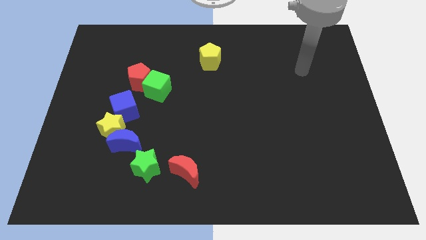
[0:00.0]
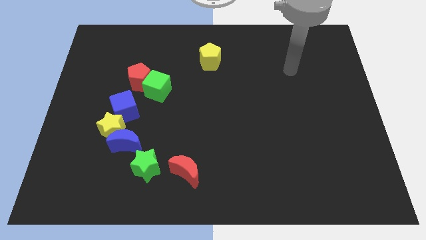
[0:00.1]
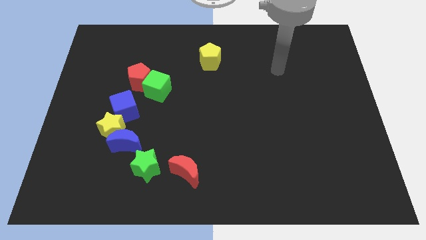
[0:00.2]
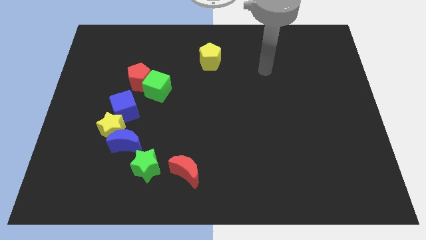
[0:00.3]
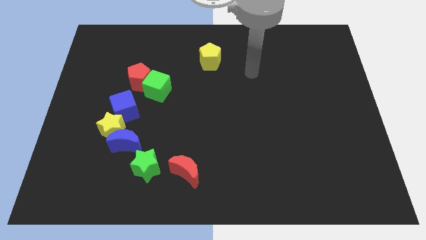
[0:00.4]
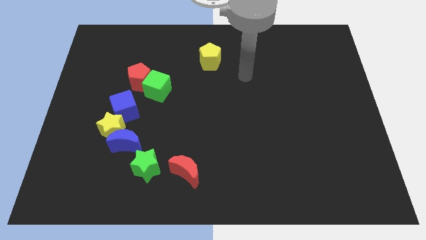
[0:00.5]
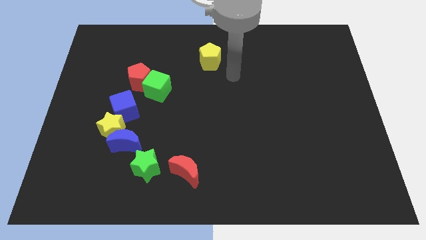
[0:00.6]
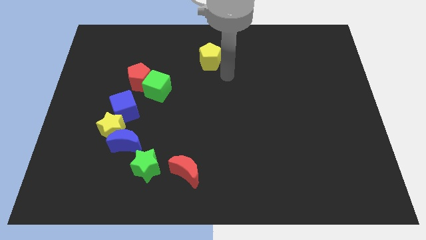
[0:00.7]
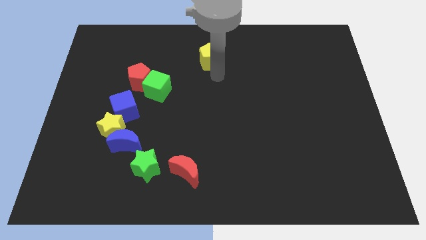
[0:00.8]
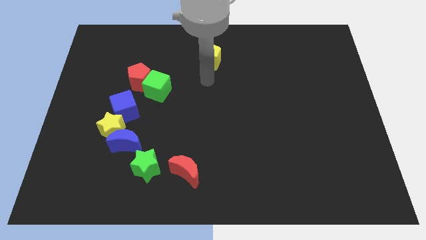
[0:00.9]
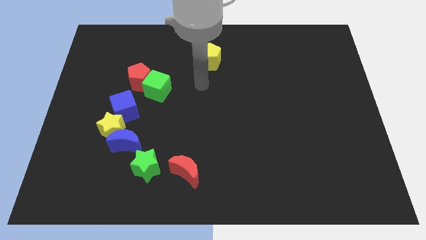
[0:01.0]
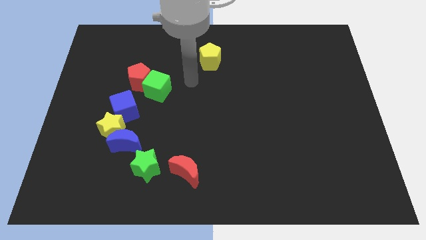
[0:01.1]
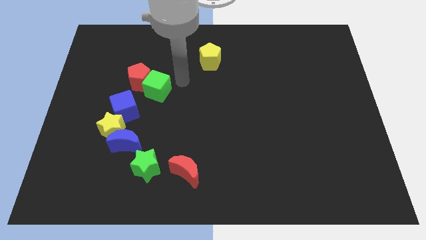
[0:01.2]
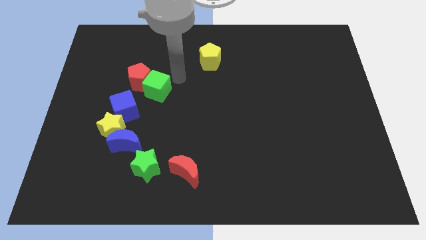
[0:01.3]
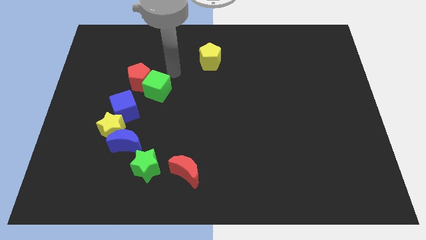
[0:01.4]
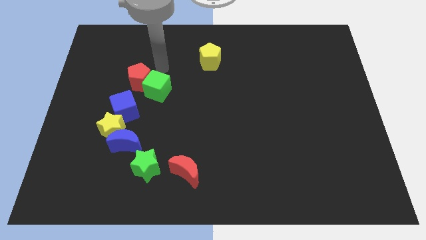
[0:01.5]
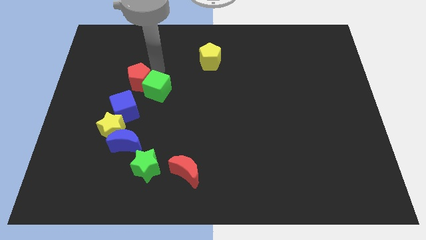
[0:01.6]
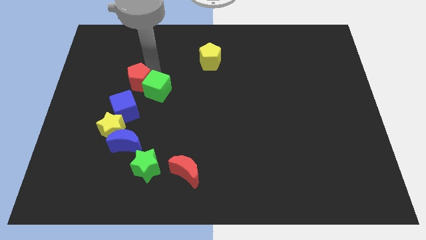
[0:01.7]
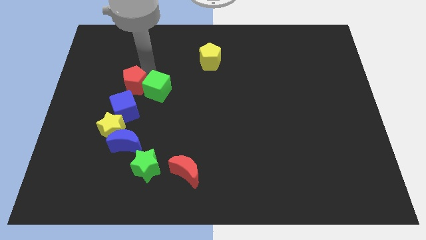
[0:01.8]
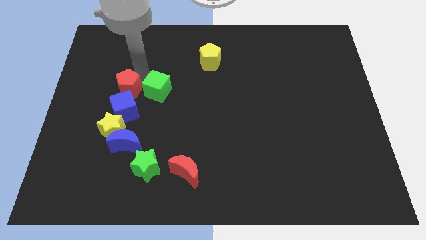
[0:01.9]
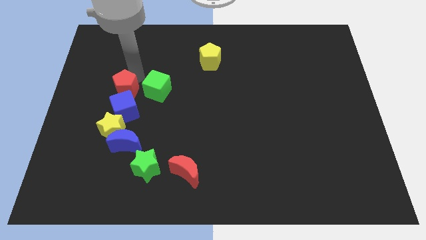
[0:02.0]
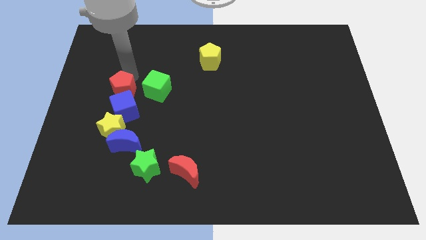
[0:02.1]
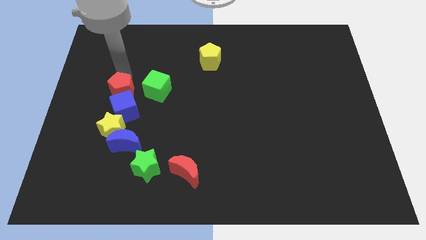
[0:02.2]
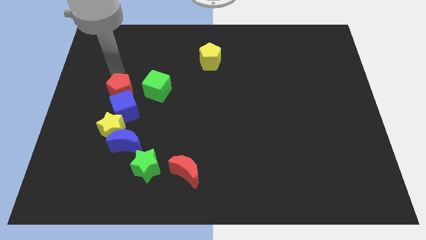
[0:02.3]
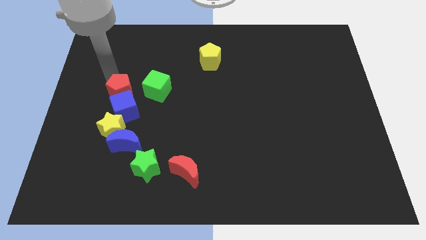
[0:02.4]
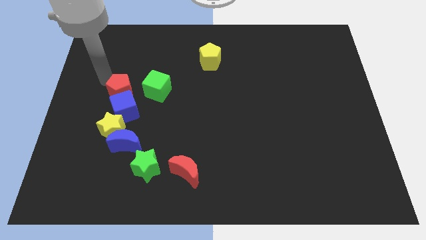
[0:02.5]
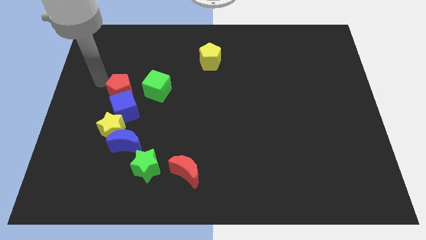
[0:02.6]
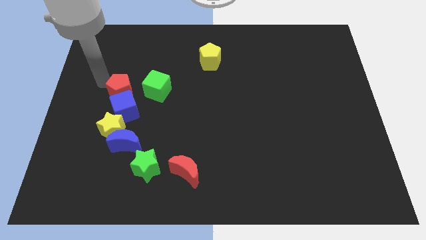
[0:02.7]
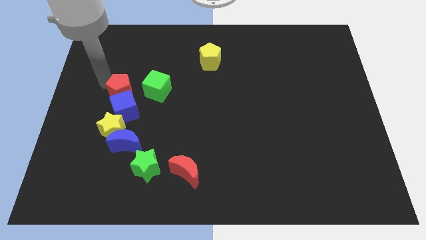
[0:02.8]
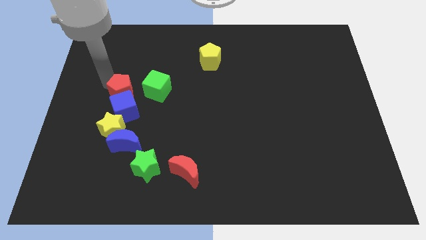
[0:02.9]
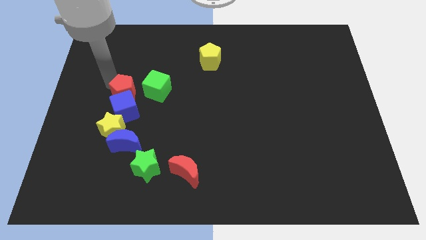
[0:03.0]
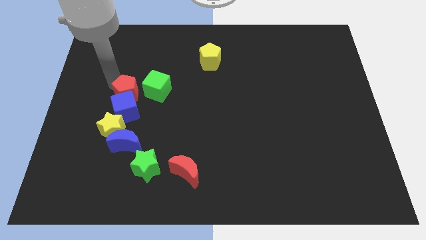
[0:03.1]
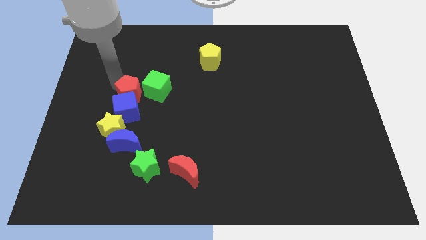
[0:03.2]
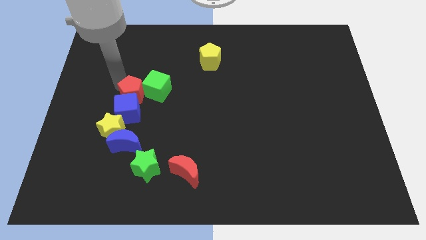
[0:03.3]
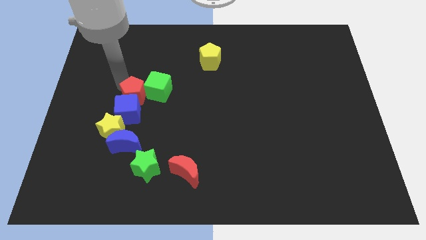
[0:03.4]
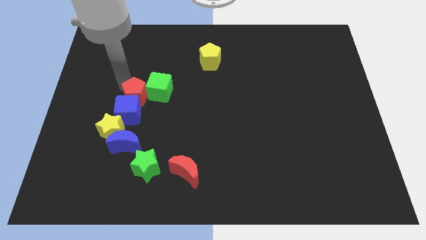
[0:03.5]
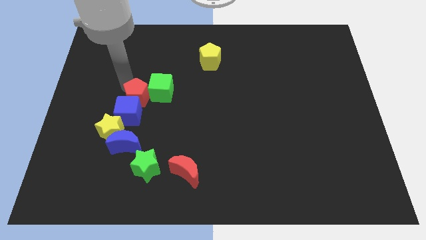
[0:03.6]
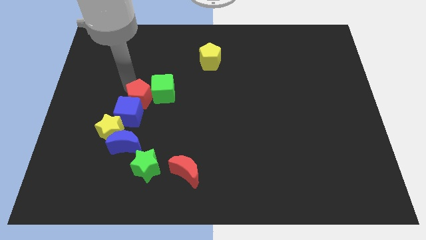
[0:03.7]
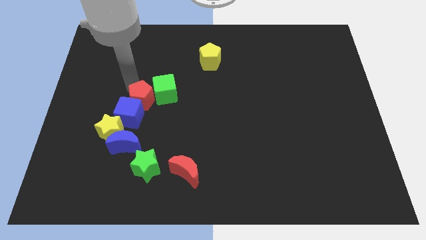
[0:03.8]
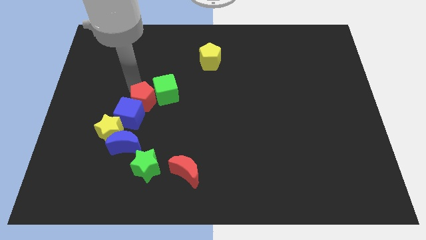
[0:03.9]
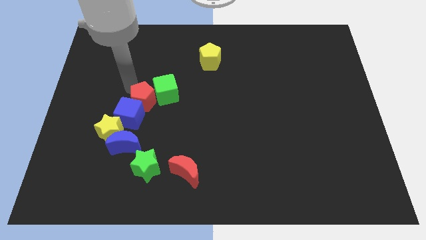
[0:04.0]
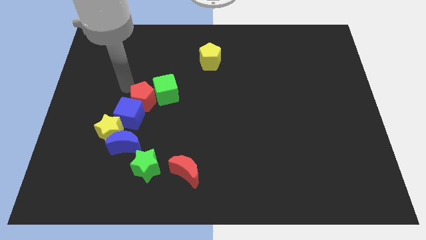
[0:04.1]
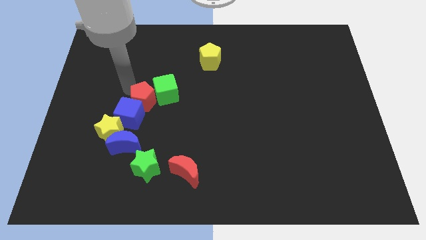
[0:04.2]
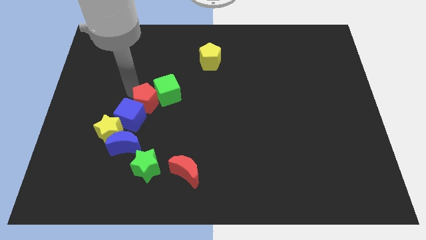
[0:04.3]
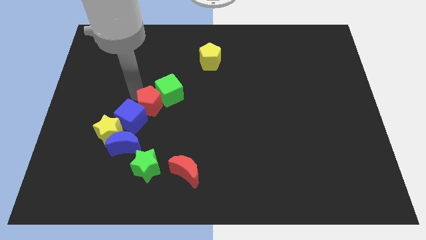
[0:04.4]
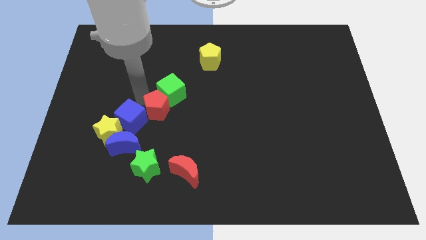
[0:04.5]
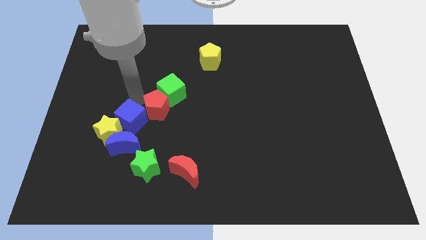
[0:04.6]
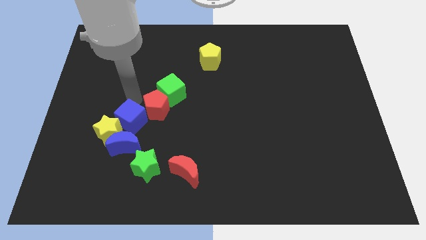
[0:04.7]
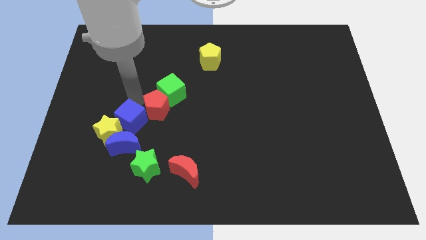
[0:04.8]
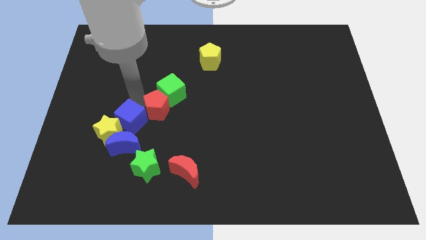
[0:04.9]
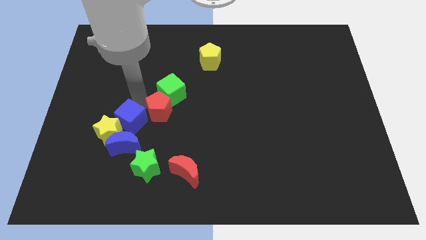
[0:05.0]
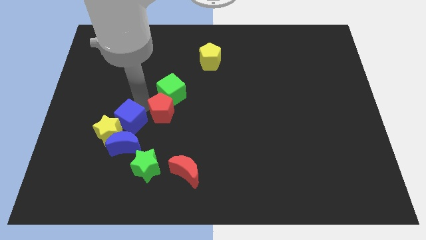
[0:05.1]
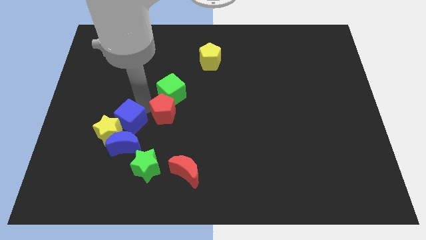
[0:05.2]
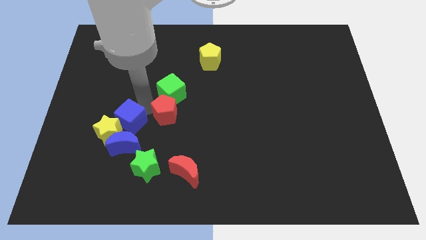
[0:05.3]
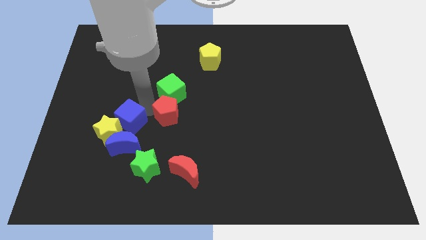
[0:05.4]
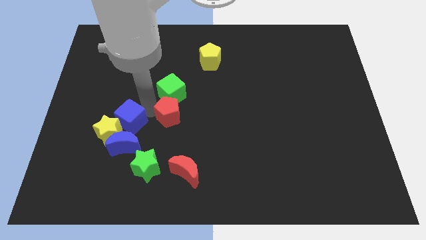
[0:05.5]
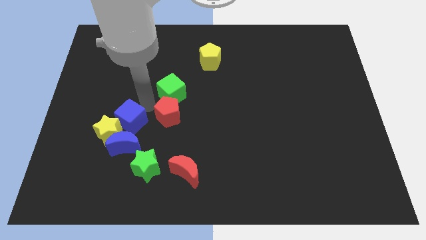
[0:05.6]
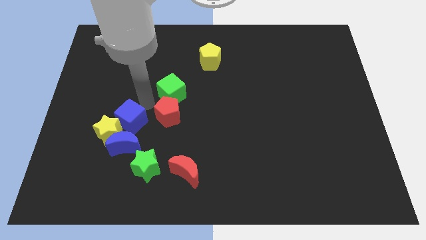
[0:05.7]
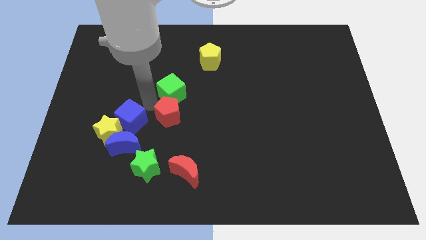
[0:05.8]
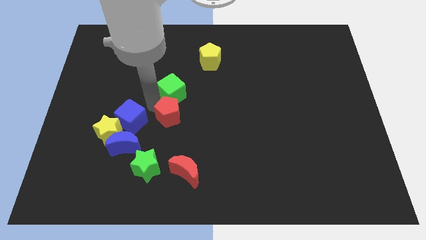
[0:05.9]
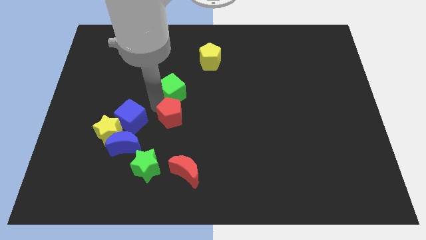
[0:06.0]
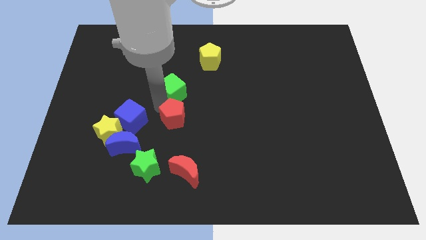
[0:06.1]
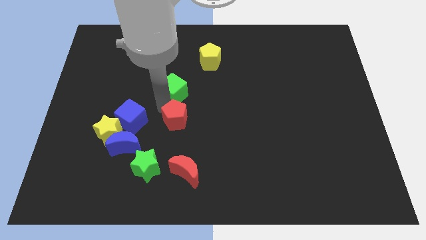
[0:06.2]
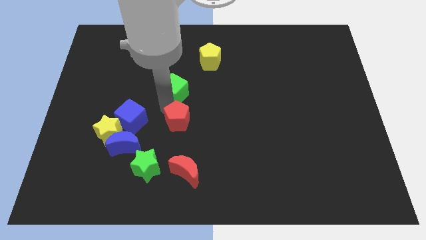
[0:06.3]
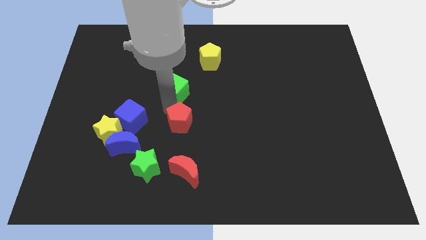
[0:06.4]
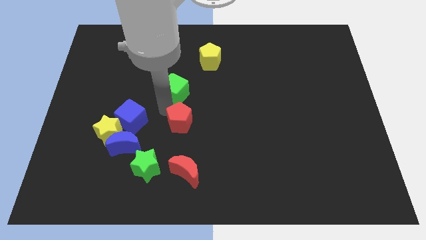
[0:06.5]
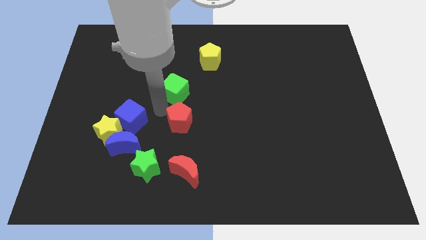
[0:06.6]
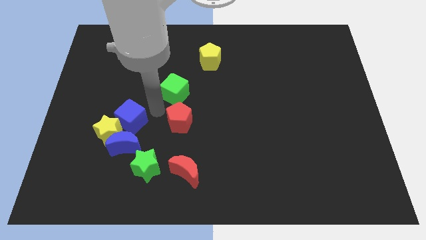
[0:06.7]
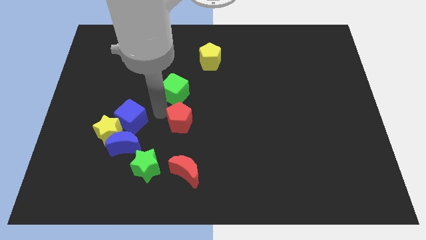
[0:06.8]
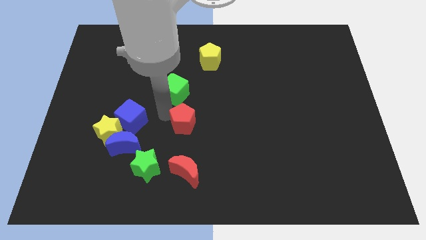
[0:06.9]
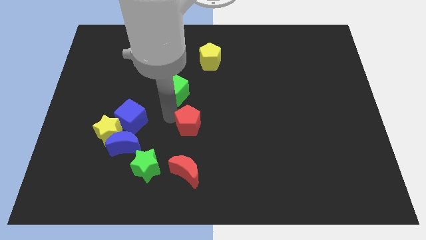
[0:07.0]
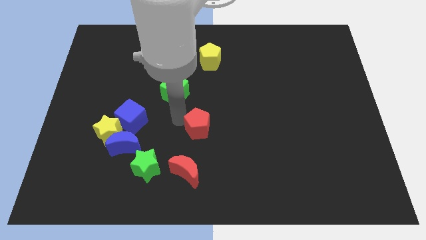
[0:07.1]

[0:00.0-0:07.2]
push the red pentagon downwards and right diagonally

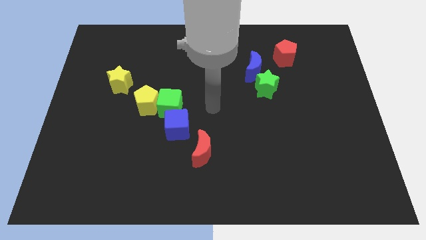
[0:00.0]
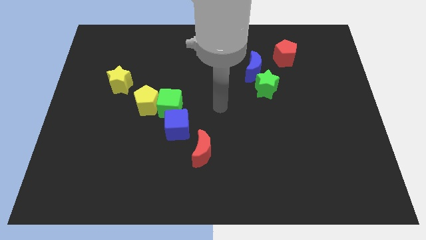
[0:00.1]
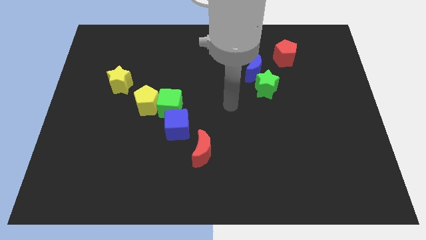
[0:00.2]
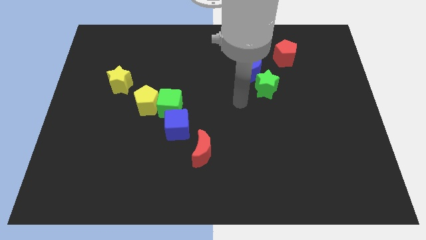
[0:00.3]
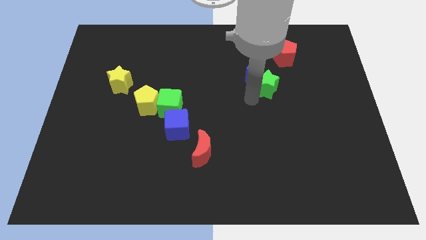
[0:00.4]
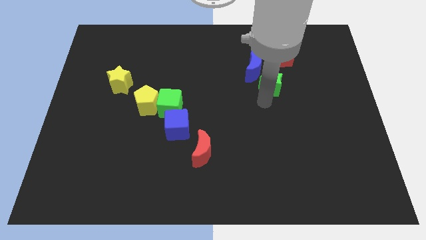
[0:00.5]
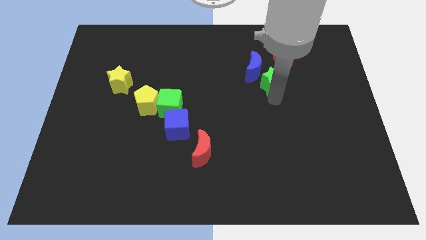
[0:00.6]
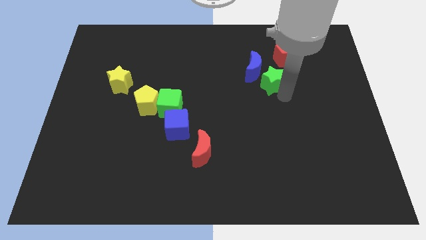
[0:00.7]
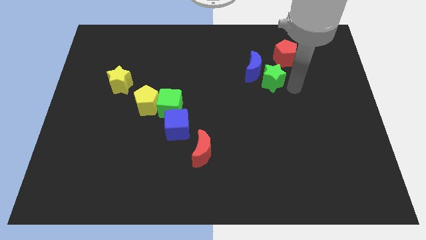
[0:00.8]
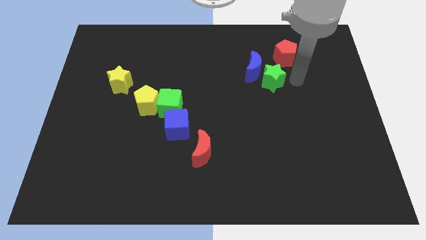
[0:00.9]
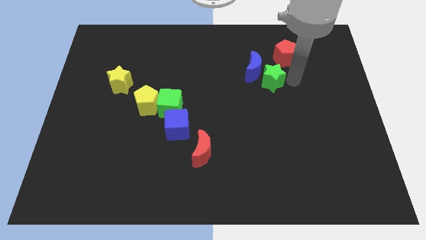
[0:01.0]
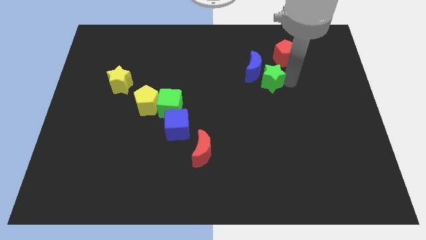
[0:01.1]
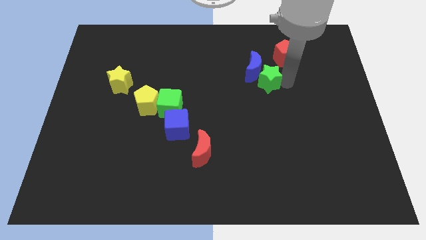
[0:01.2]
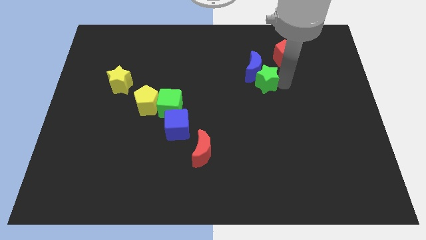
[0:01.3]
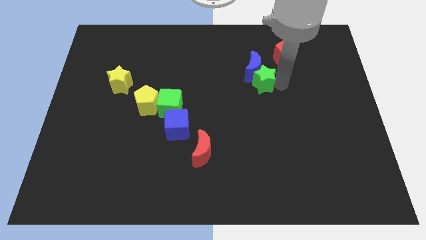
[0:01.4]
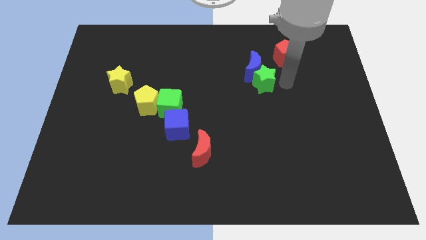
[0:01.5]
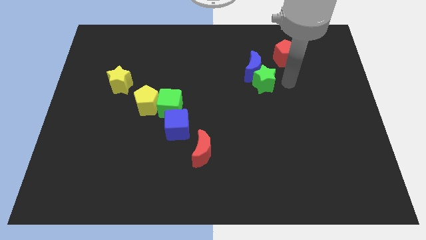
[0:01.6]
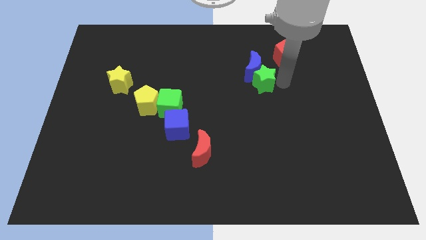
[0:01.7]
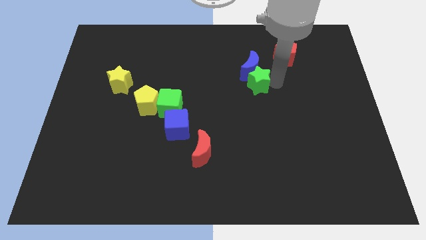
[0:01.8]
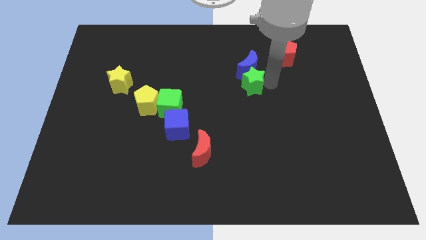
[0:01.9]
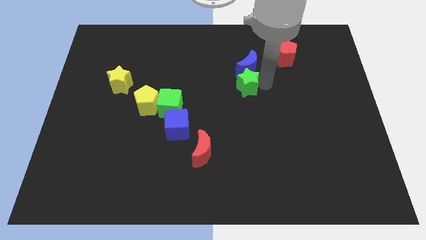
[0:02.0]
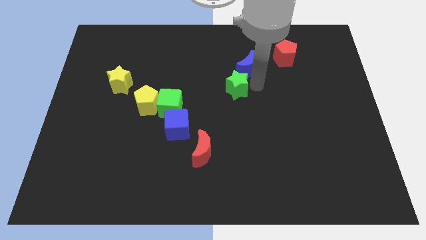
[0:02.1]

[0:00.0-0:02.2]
push the green star slightly to the left
